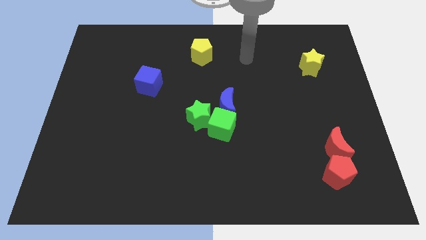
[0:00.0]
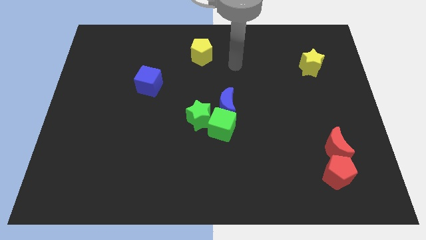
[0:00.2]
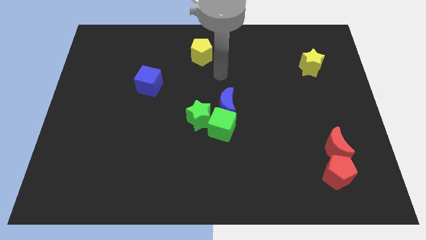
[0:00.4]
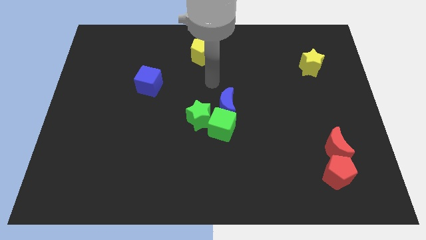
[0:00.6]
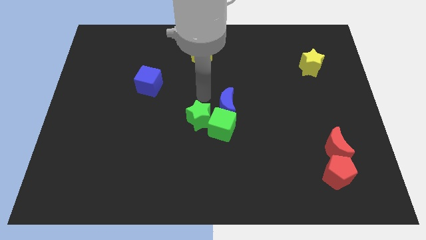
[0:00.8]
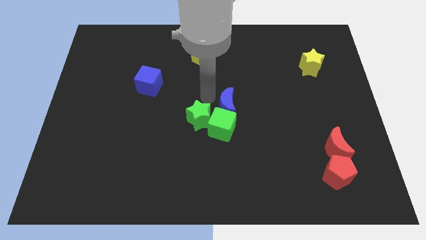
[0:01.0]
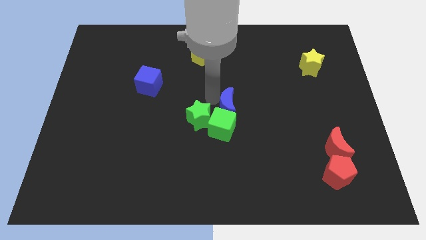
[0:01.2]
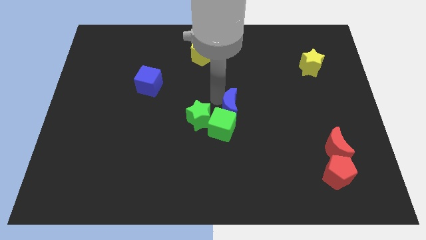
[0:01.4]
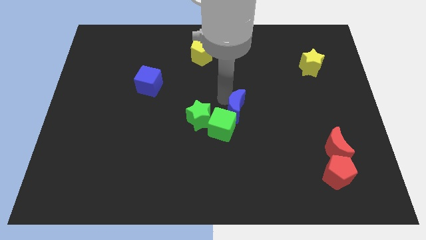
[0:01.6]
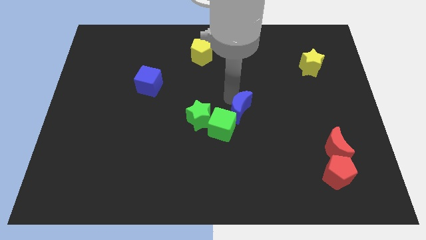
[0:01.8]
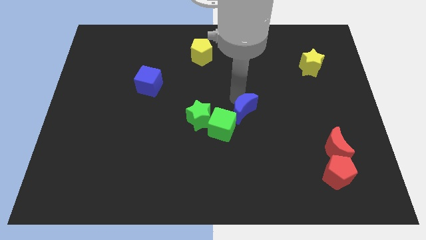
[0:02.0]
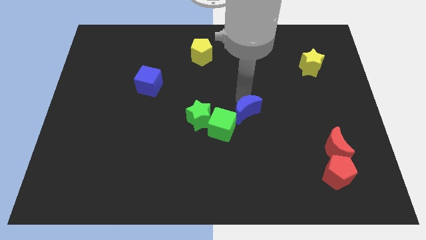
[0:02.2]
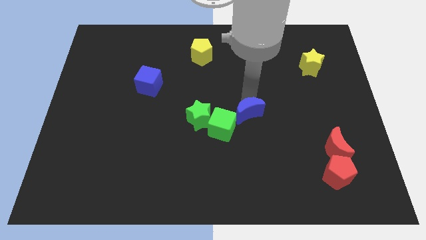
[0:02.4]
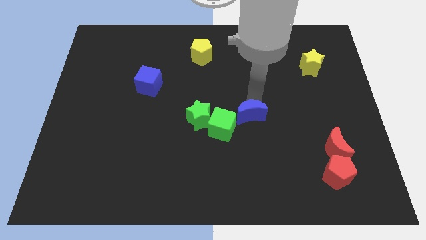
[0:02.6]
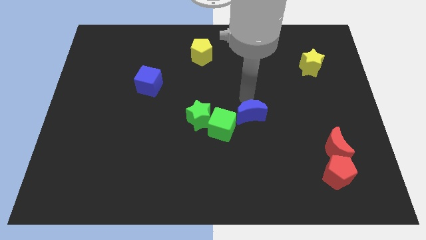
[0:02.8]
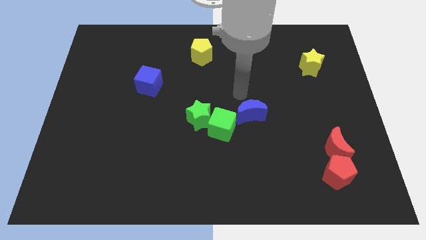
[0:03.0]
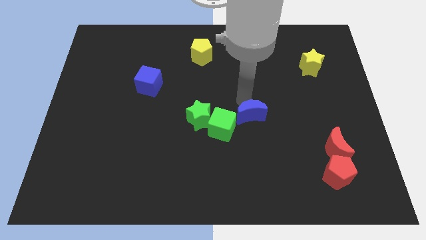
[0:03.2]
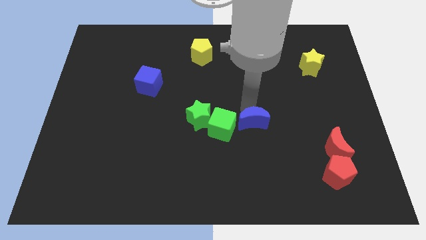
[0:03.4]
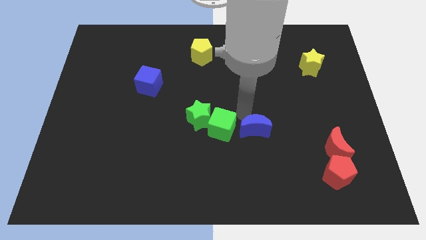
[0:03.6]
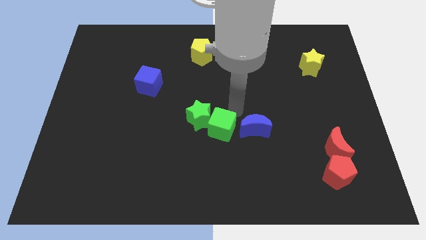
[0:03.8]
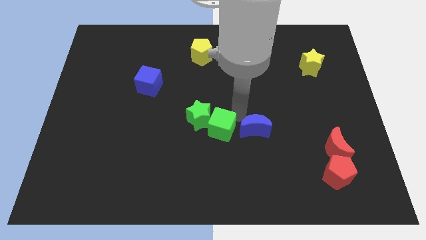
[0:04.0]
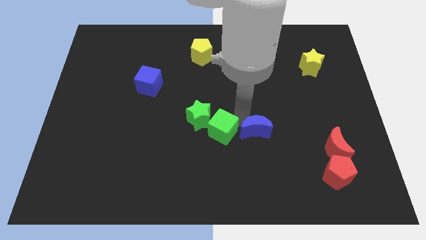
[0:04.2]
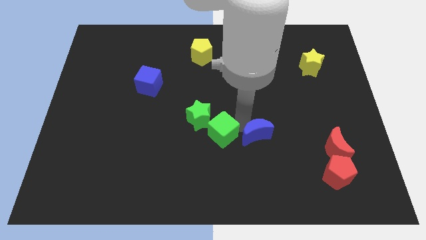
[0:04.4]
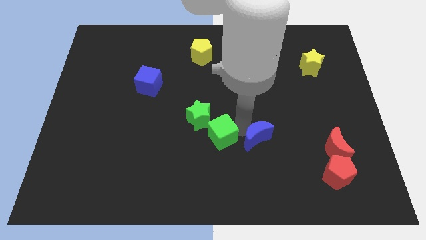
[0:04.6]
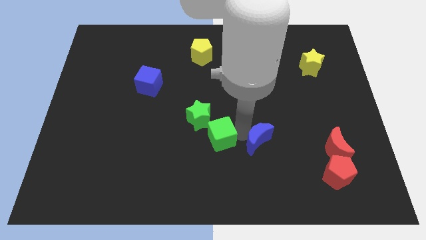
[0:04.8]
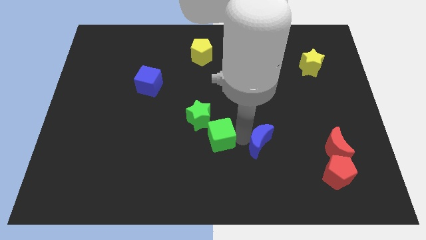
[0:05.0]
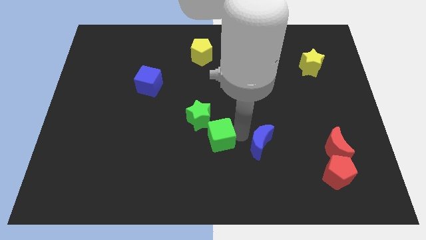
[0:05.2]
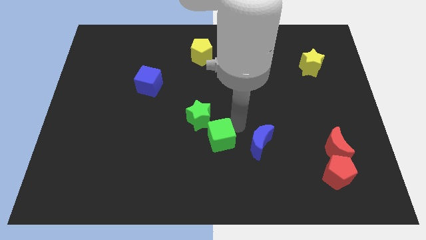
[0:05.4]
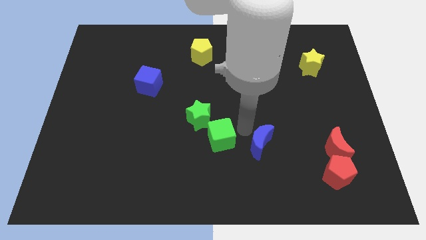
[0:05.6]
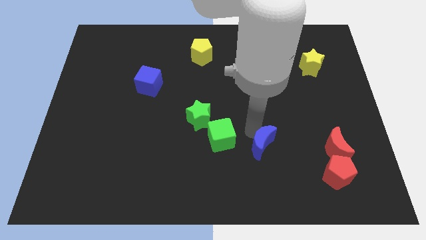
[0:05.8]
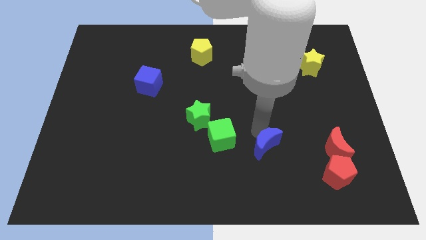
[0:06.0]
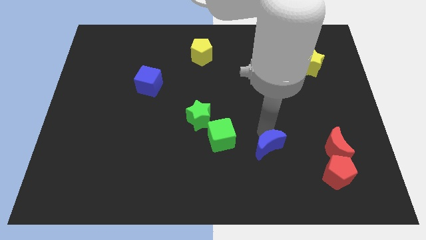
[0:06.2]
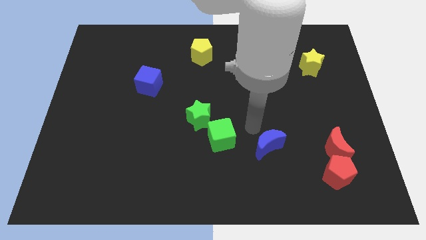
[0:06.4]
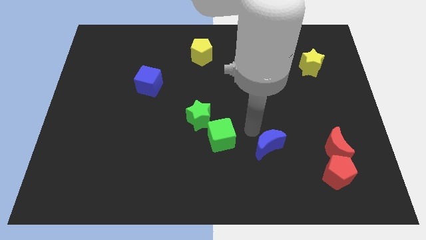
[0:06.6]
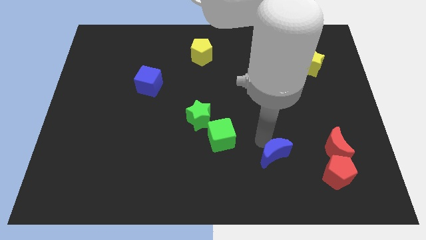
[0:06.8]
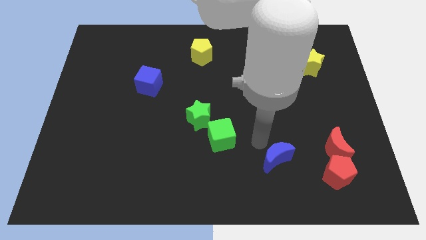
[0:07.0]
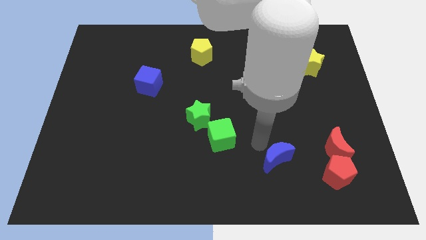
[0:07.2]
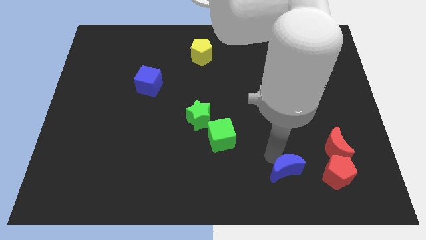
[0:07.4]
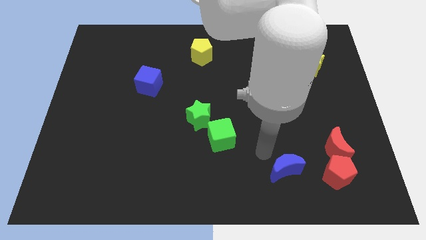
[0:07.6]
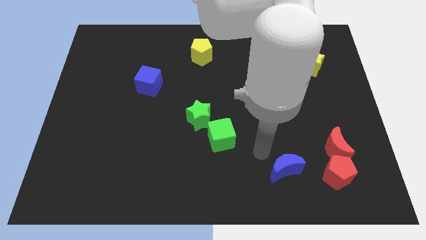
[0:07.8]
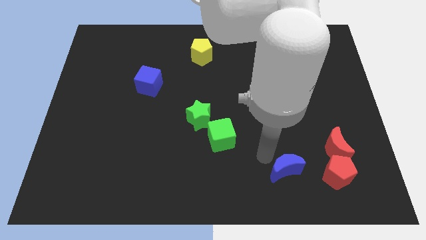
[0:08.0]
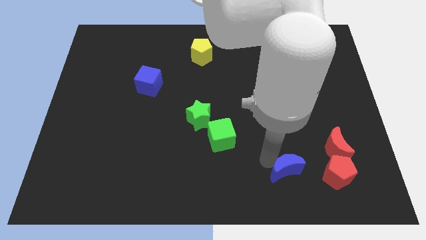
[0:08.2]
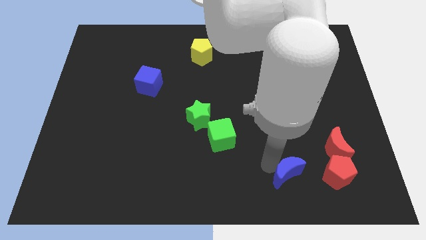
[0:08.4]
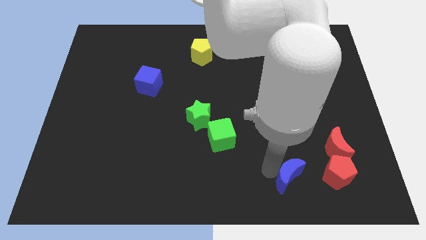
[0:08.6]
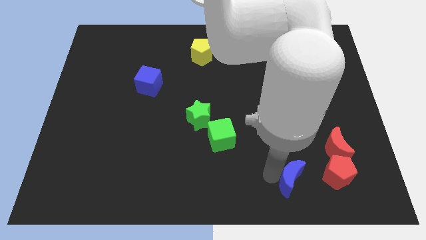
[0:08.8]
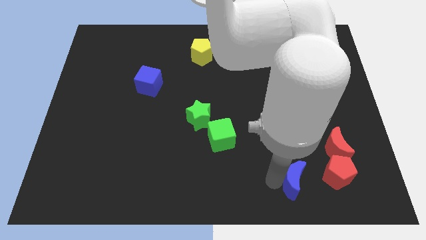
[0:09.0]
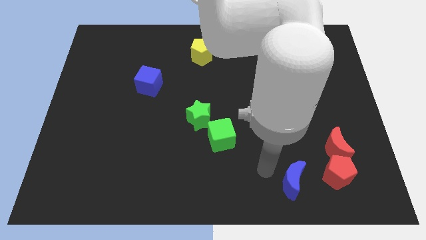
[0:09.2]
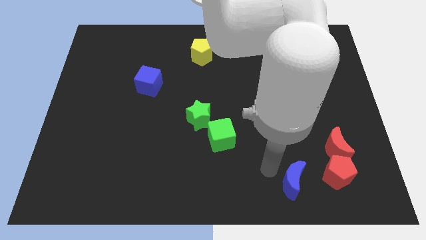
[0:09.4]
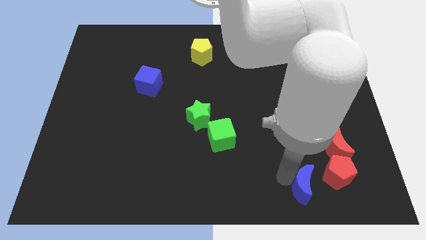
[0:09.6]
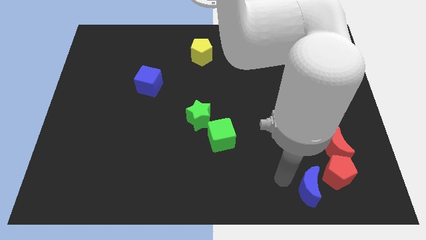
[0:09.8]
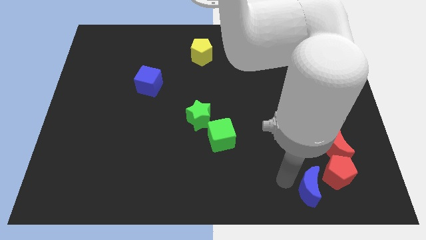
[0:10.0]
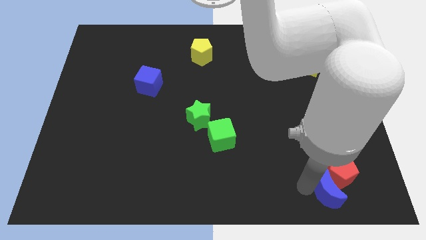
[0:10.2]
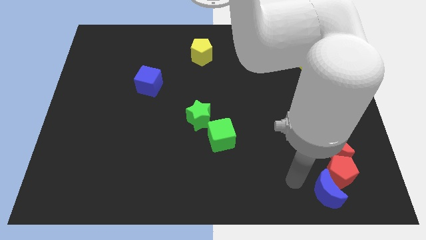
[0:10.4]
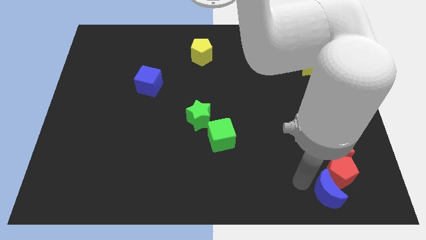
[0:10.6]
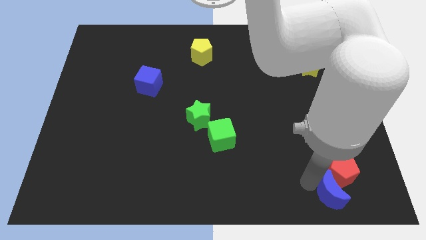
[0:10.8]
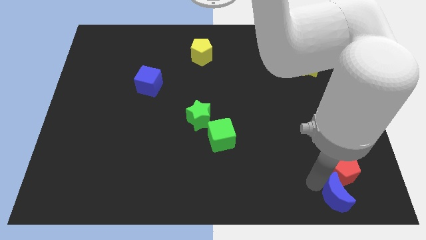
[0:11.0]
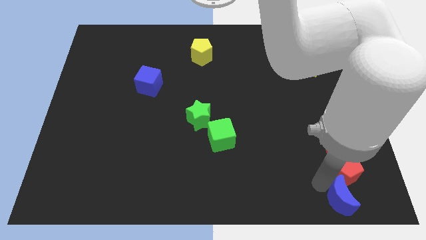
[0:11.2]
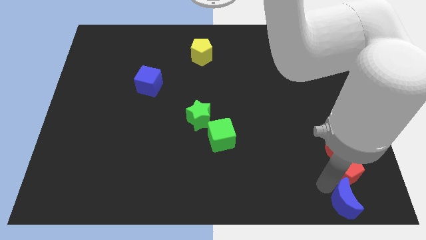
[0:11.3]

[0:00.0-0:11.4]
push the blue moon to the lower right corner
